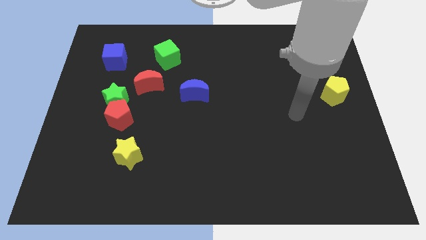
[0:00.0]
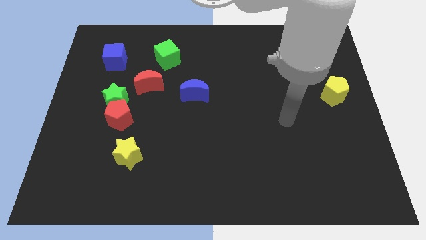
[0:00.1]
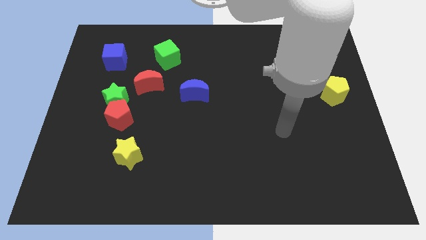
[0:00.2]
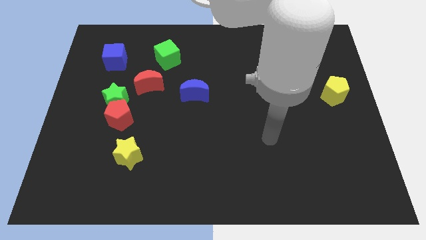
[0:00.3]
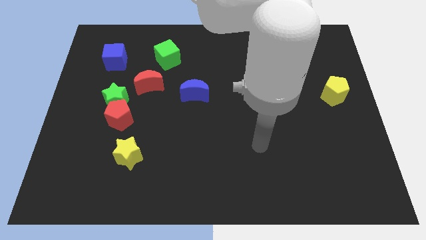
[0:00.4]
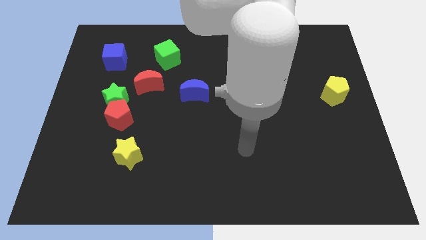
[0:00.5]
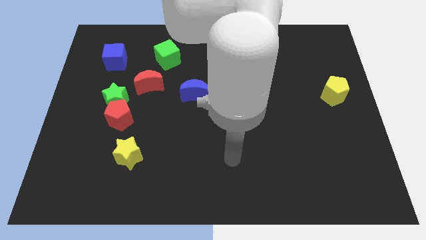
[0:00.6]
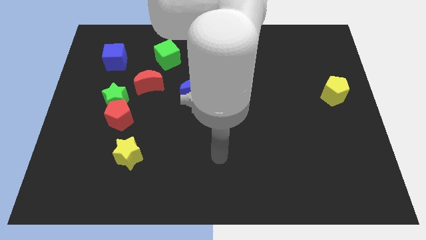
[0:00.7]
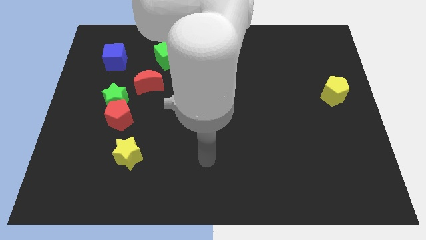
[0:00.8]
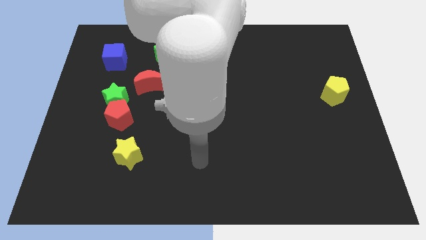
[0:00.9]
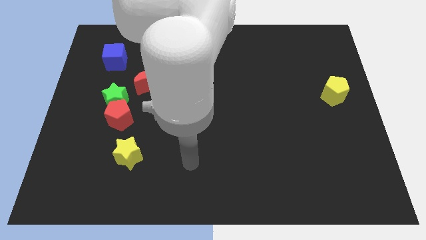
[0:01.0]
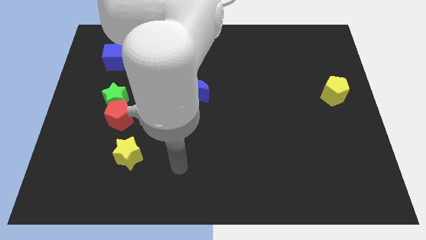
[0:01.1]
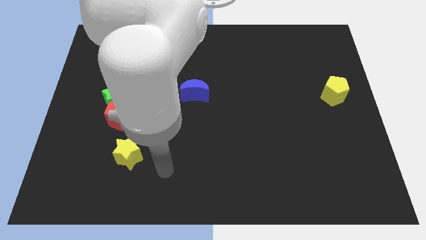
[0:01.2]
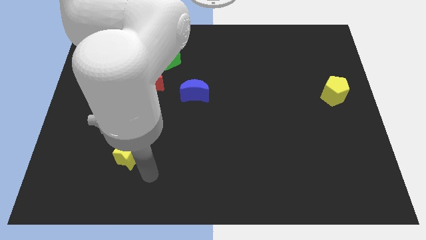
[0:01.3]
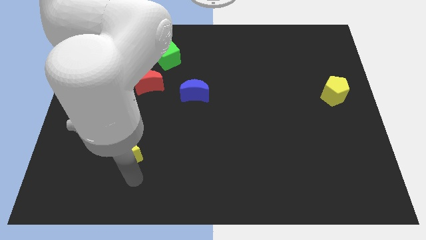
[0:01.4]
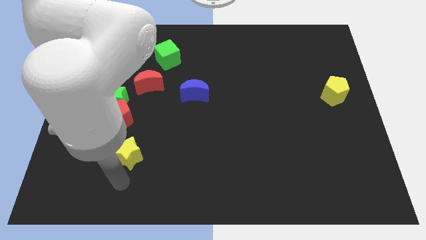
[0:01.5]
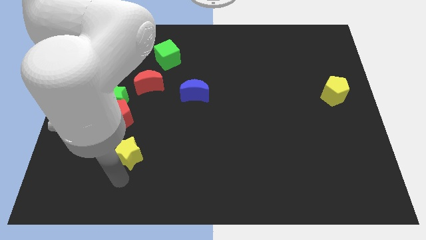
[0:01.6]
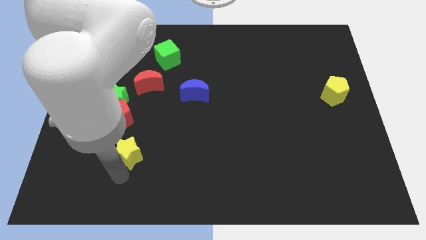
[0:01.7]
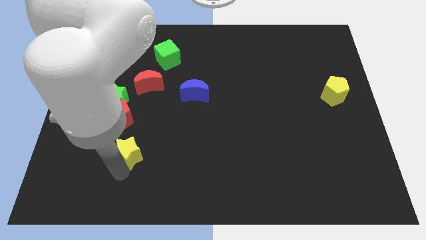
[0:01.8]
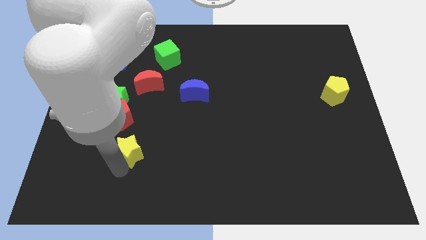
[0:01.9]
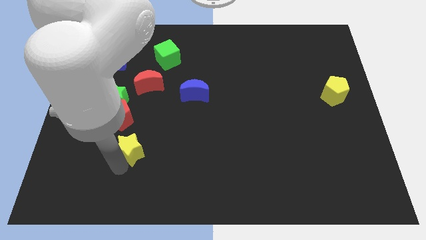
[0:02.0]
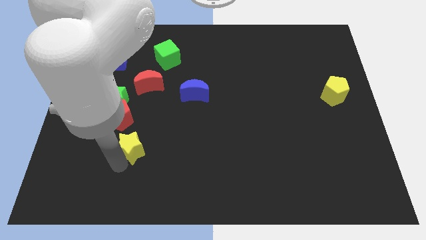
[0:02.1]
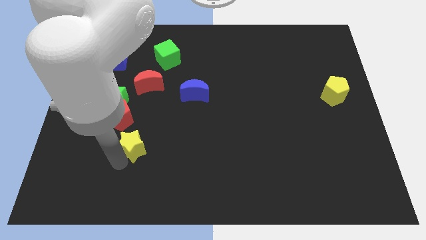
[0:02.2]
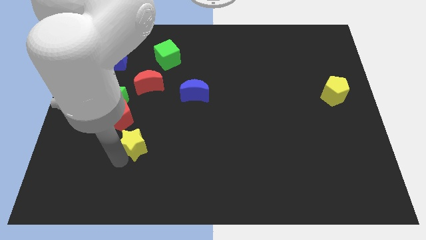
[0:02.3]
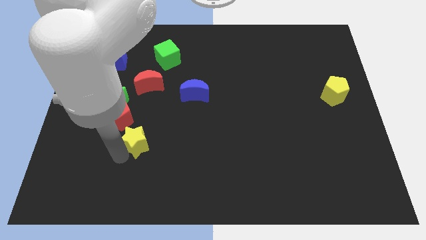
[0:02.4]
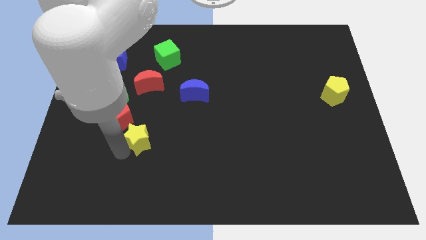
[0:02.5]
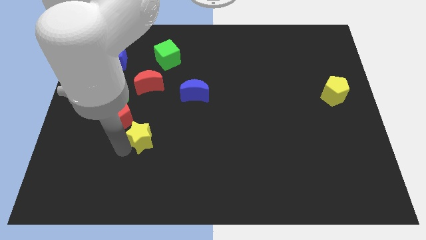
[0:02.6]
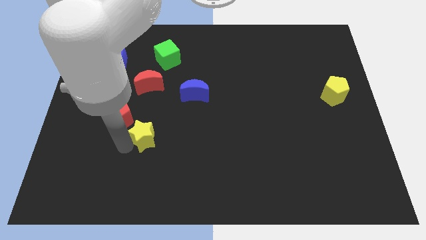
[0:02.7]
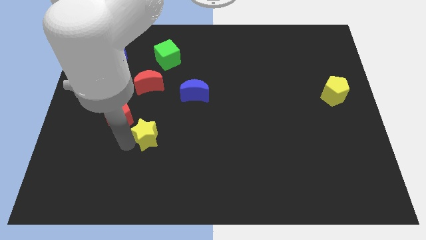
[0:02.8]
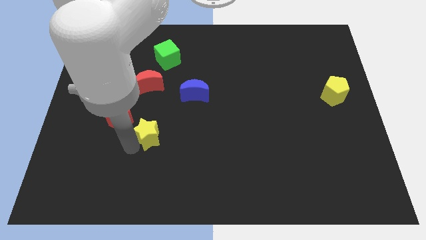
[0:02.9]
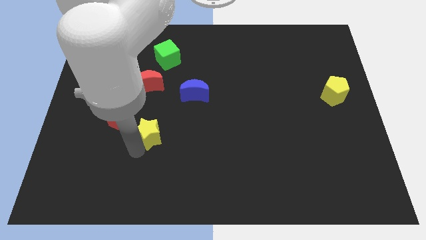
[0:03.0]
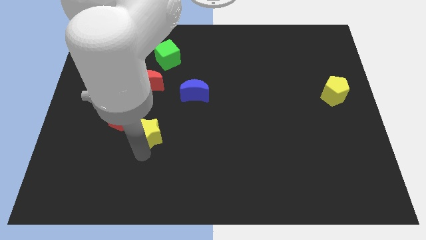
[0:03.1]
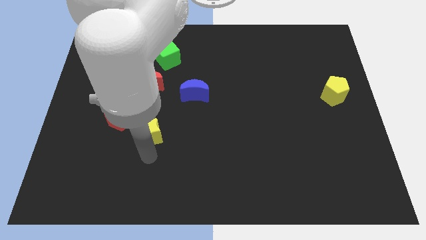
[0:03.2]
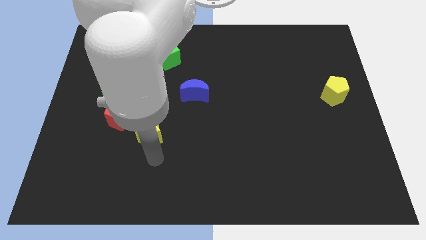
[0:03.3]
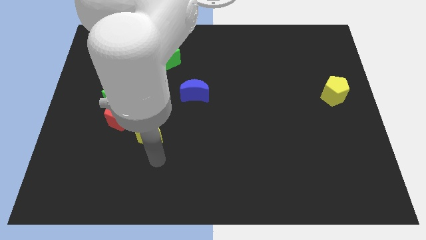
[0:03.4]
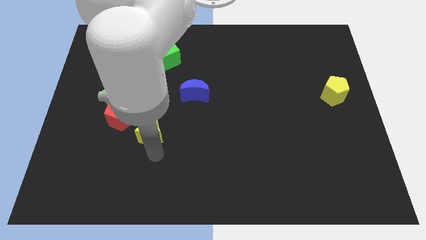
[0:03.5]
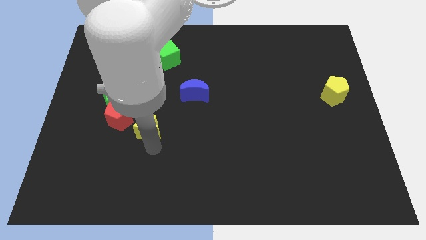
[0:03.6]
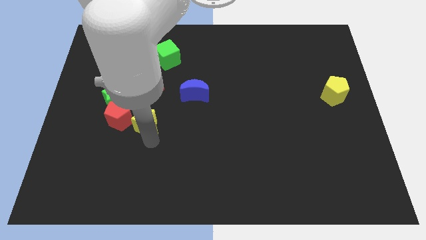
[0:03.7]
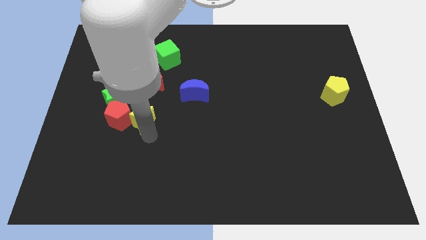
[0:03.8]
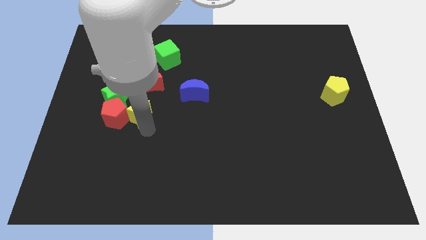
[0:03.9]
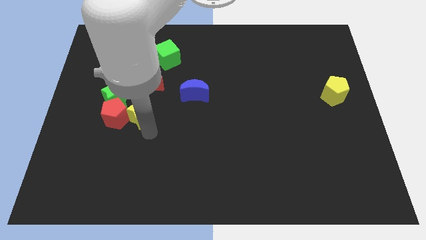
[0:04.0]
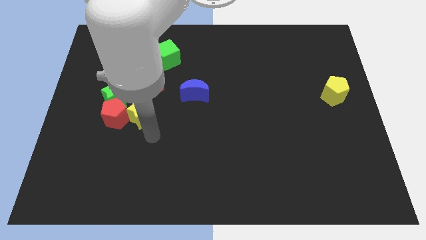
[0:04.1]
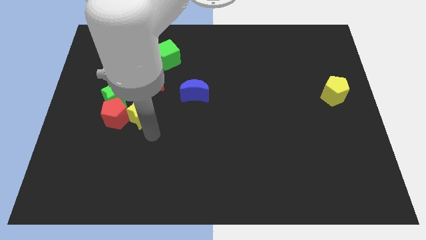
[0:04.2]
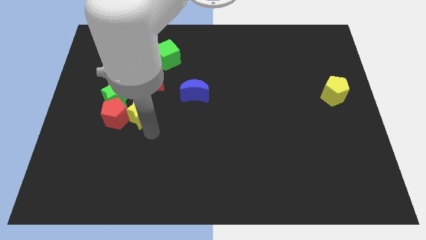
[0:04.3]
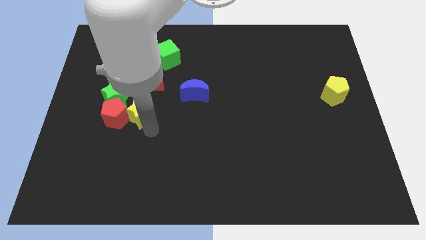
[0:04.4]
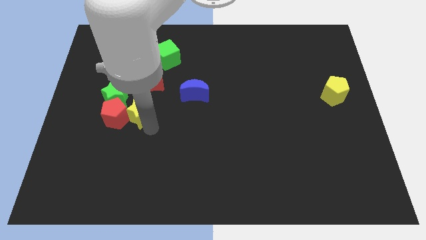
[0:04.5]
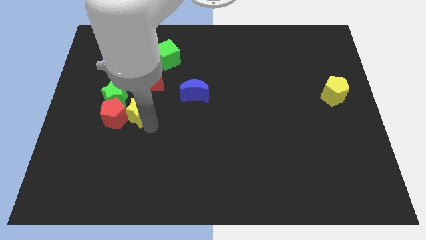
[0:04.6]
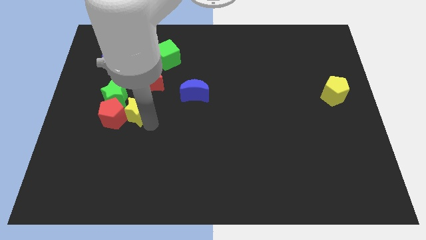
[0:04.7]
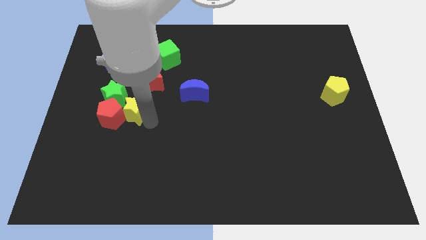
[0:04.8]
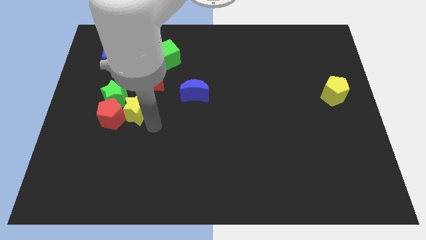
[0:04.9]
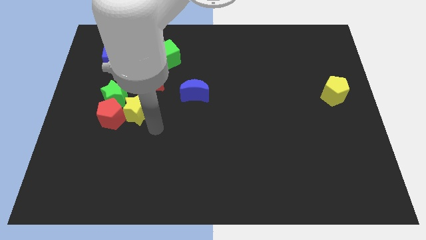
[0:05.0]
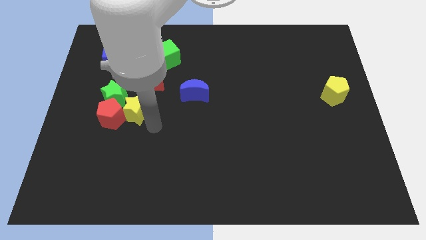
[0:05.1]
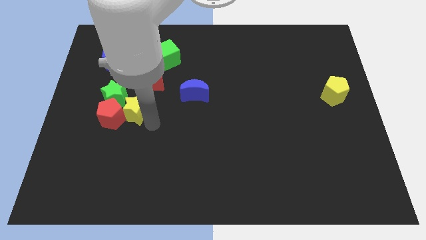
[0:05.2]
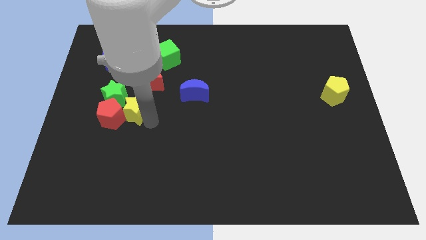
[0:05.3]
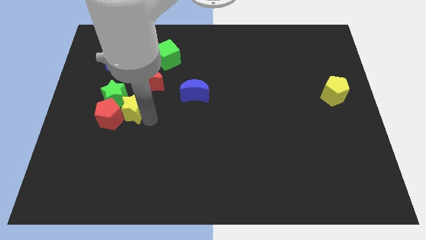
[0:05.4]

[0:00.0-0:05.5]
push the yellow star to the green star

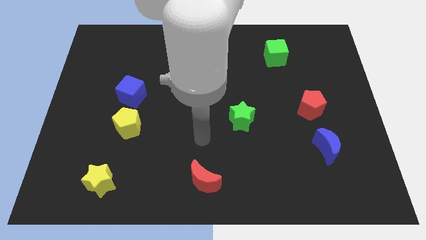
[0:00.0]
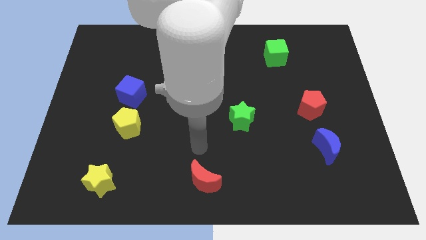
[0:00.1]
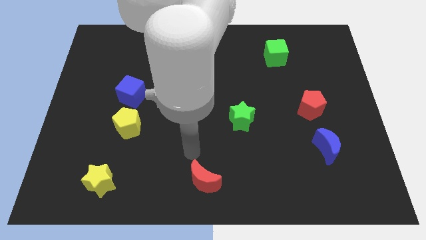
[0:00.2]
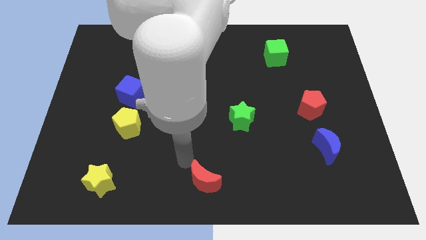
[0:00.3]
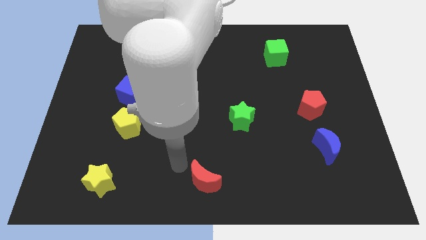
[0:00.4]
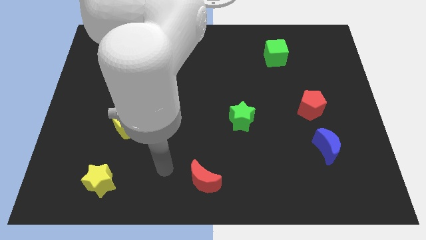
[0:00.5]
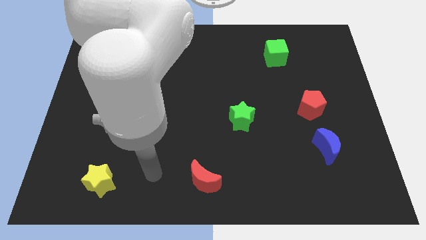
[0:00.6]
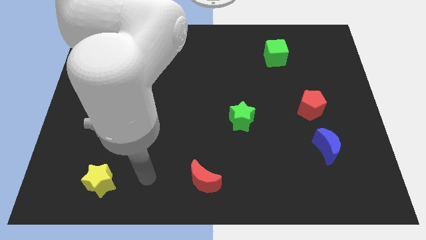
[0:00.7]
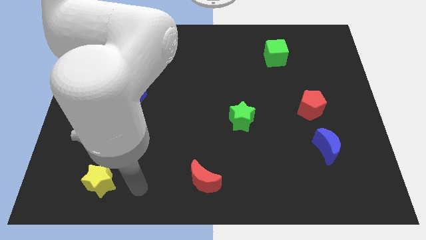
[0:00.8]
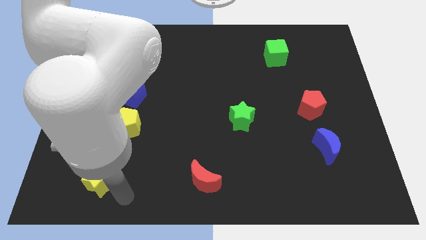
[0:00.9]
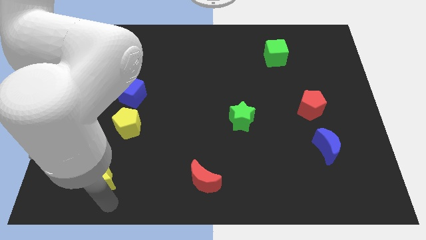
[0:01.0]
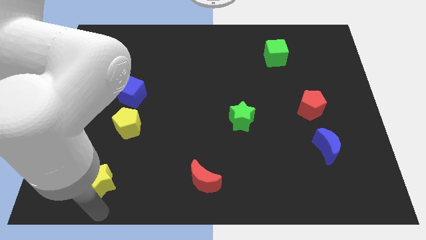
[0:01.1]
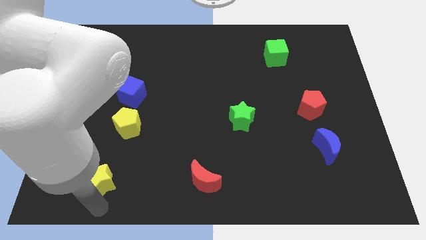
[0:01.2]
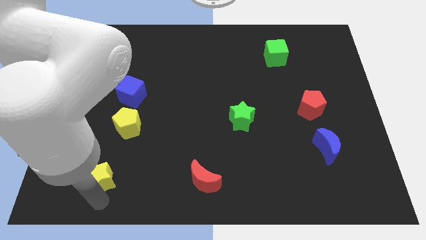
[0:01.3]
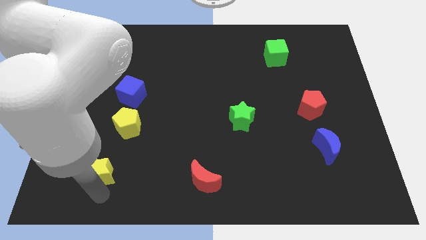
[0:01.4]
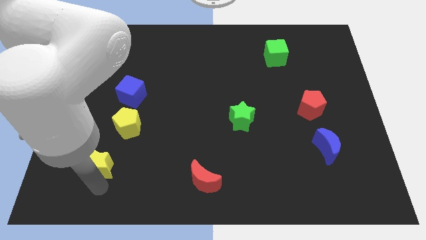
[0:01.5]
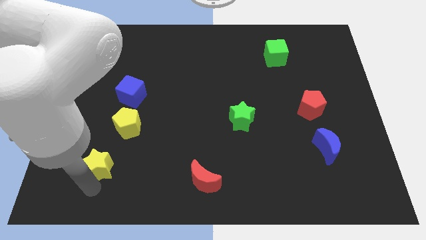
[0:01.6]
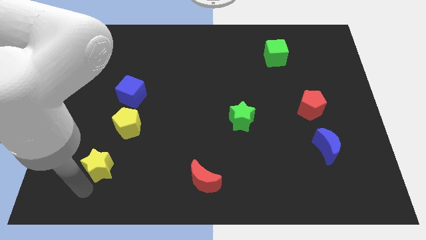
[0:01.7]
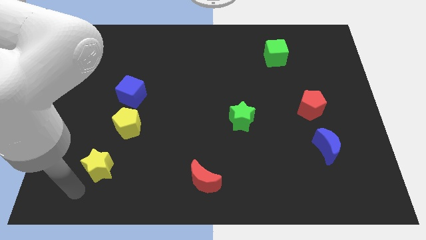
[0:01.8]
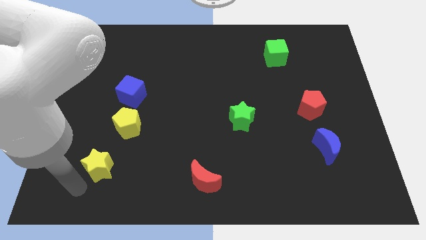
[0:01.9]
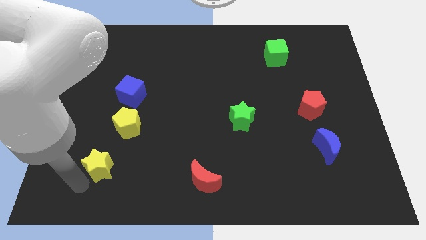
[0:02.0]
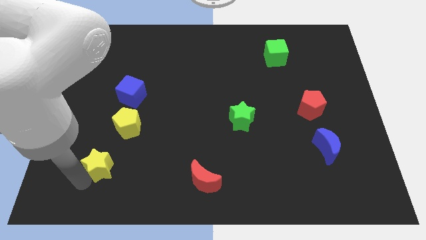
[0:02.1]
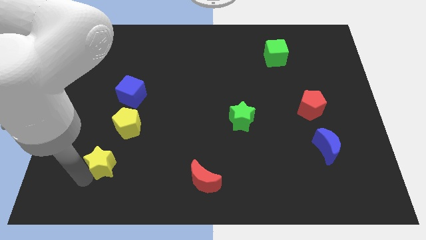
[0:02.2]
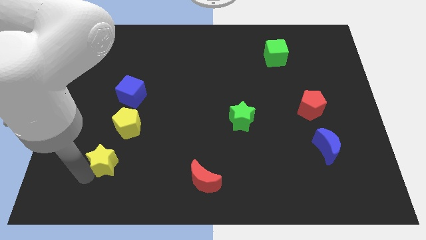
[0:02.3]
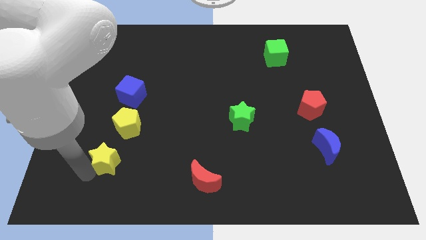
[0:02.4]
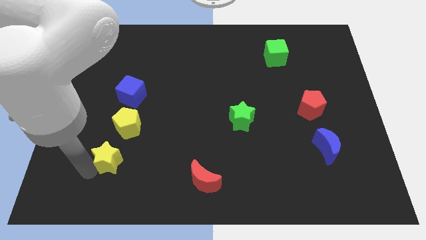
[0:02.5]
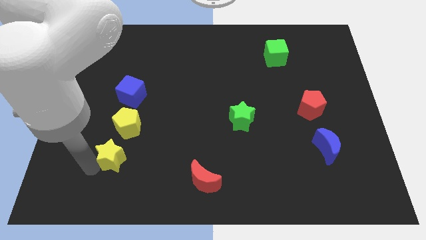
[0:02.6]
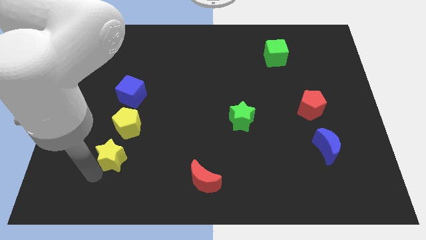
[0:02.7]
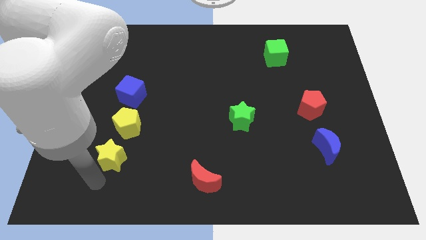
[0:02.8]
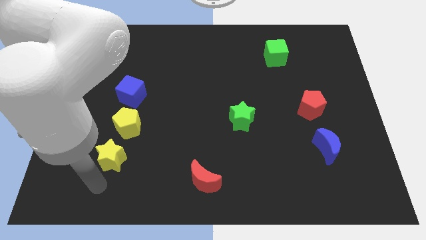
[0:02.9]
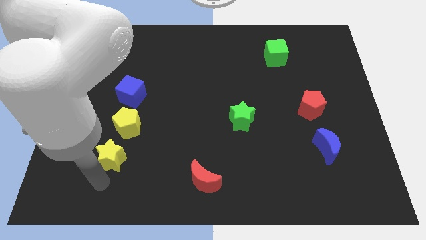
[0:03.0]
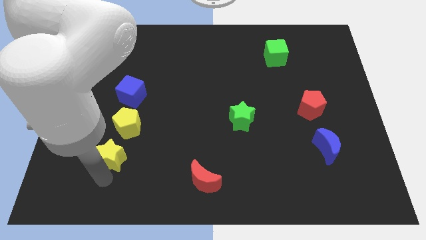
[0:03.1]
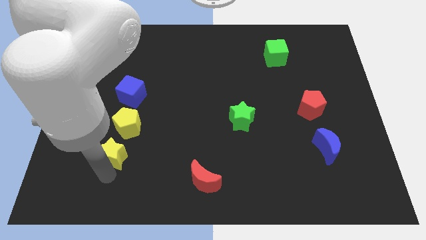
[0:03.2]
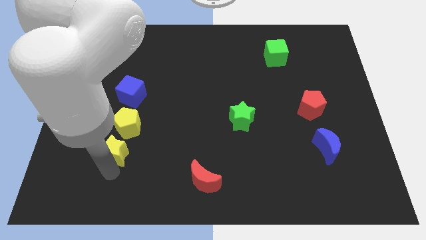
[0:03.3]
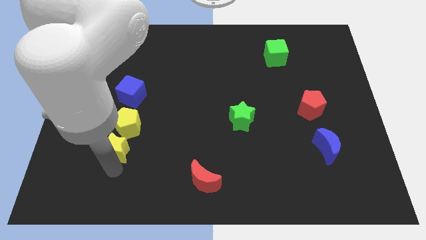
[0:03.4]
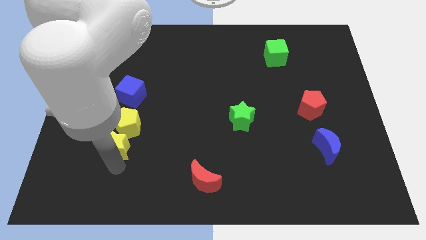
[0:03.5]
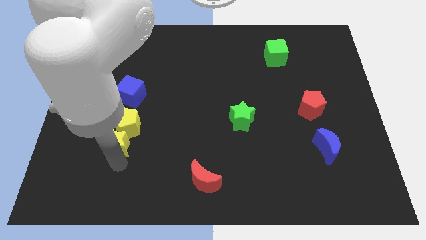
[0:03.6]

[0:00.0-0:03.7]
slide the yellow star close to the yellow pentagon
